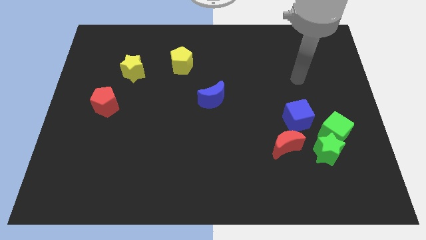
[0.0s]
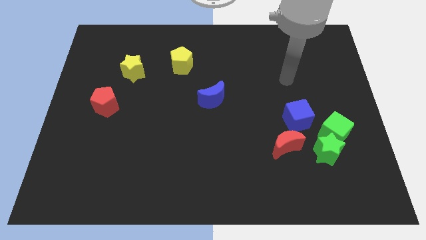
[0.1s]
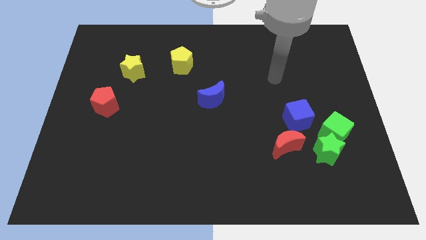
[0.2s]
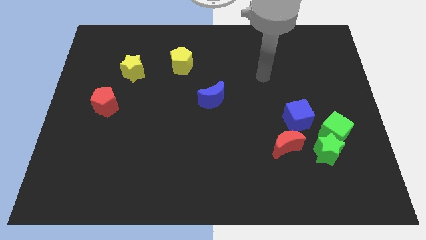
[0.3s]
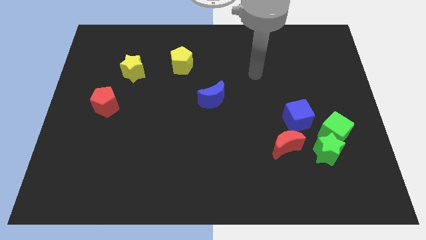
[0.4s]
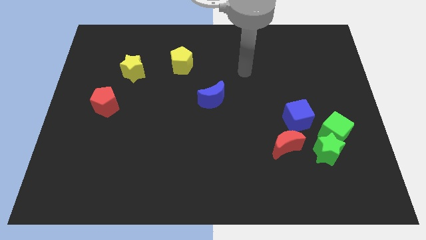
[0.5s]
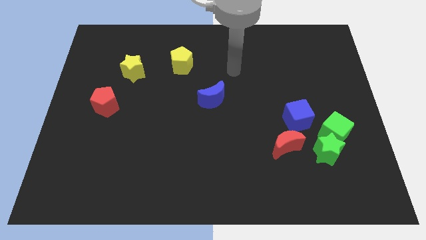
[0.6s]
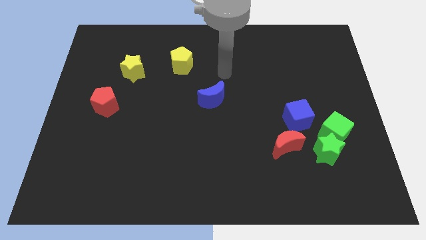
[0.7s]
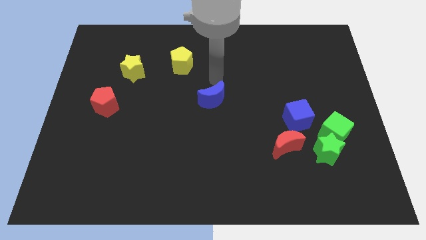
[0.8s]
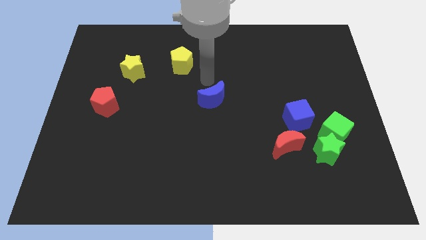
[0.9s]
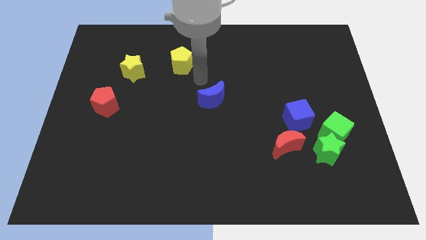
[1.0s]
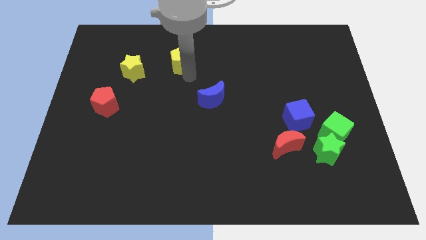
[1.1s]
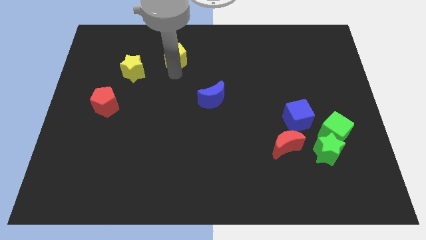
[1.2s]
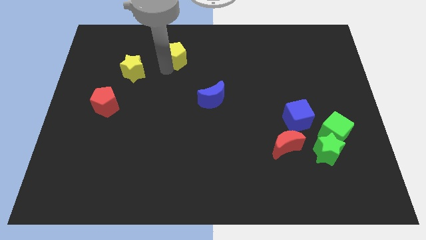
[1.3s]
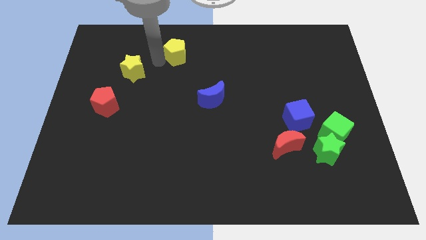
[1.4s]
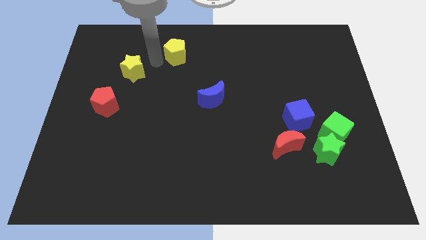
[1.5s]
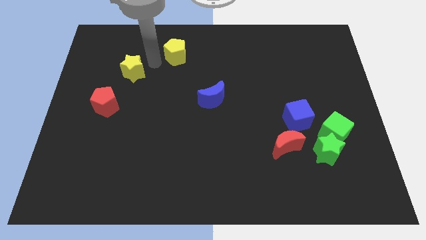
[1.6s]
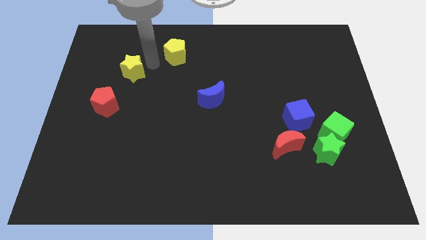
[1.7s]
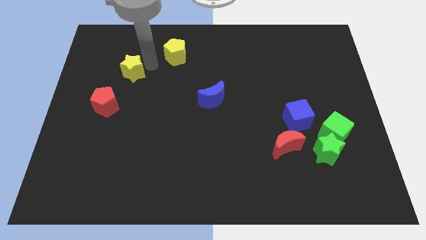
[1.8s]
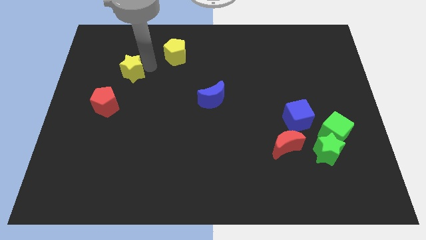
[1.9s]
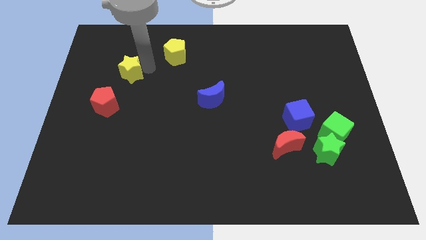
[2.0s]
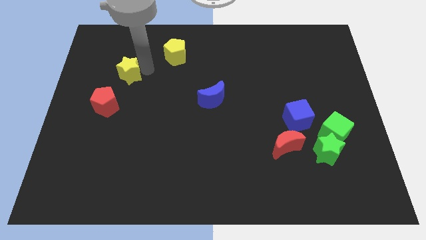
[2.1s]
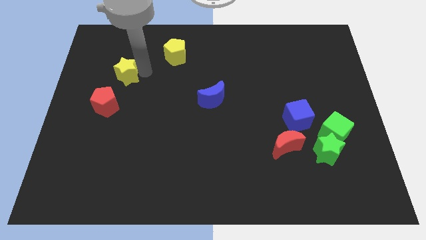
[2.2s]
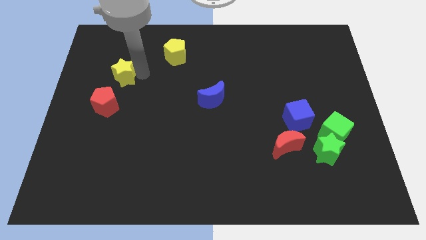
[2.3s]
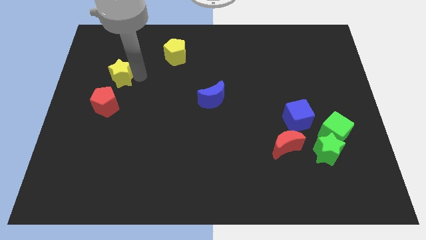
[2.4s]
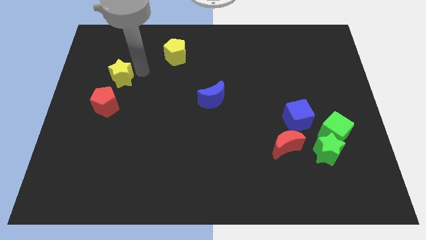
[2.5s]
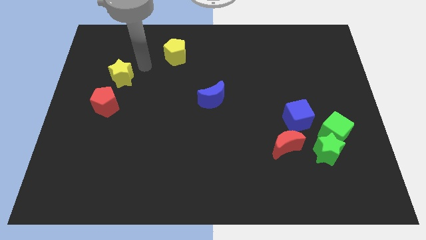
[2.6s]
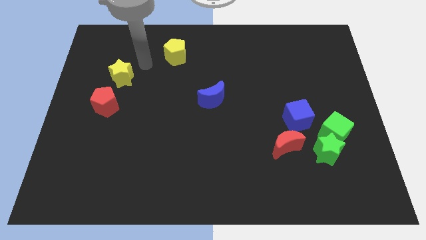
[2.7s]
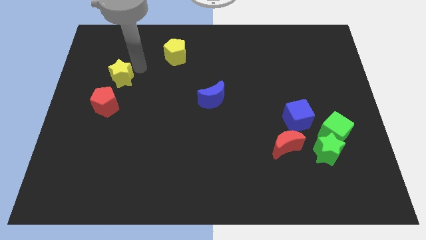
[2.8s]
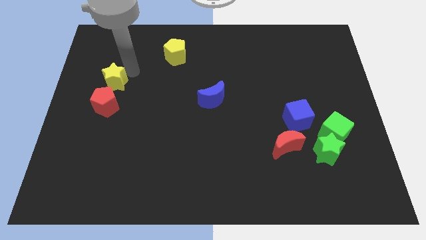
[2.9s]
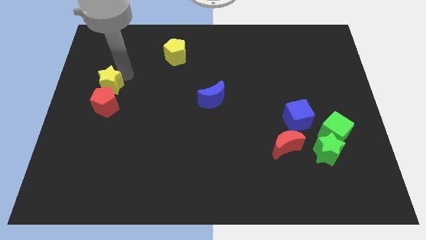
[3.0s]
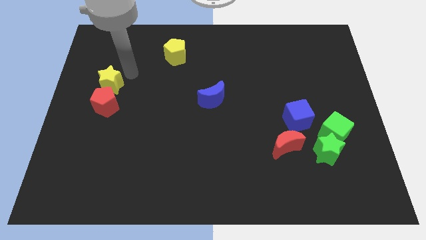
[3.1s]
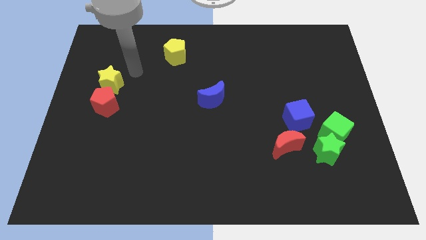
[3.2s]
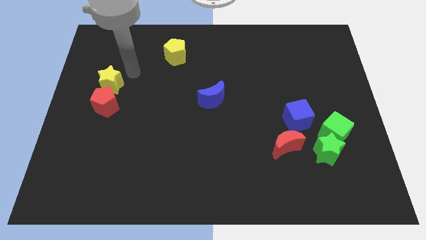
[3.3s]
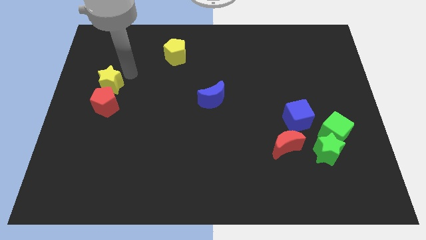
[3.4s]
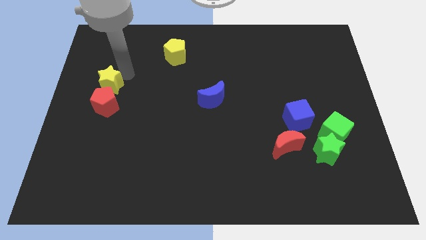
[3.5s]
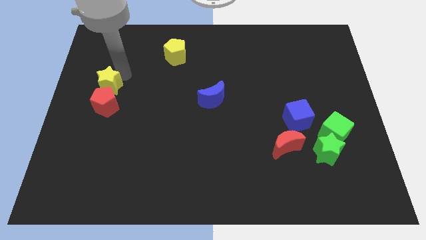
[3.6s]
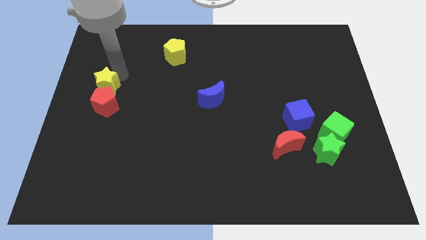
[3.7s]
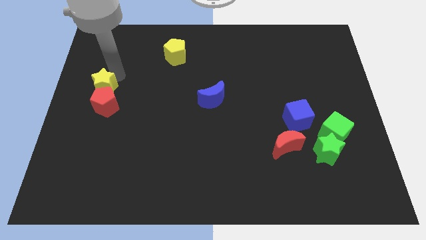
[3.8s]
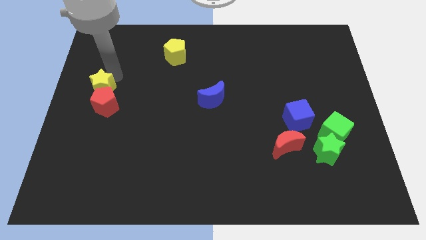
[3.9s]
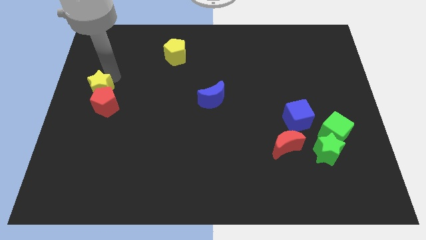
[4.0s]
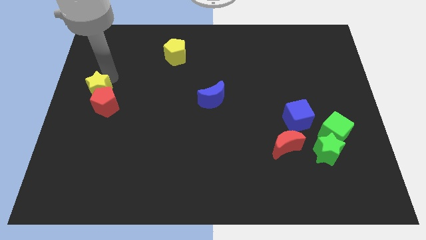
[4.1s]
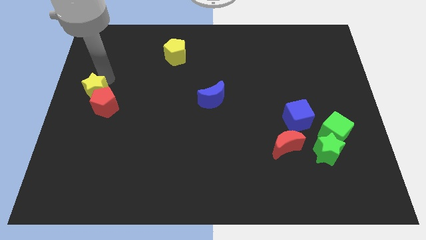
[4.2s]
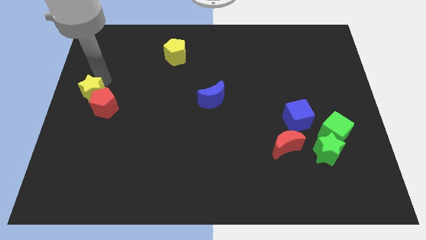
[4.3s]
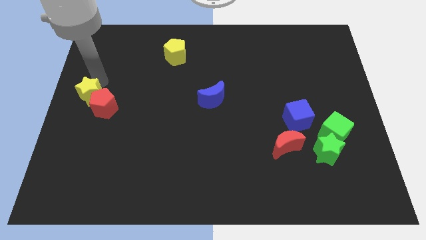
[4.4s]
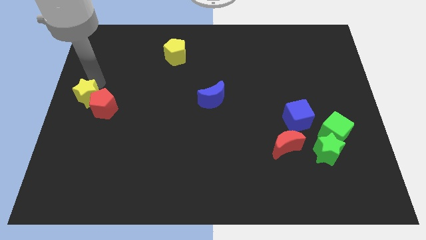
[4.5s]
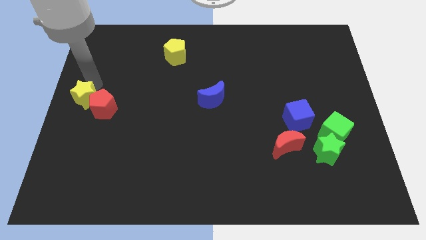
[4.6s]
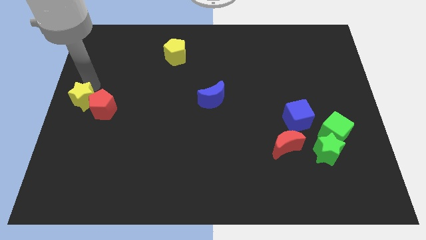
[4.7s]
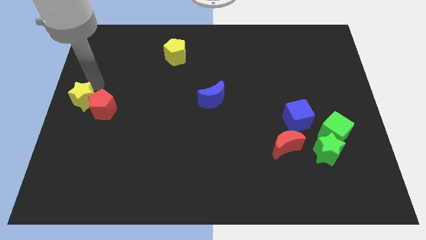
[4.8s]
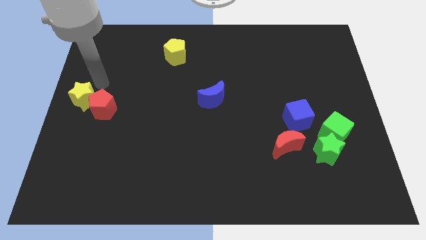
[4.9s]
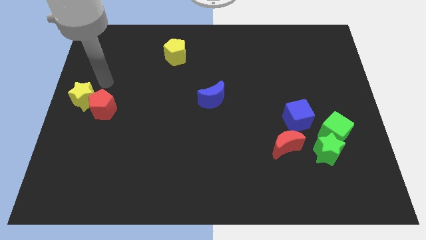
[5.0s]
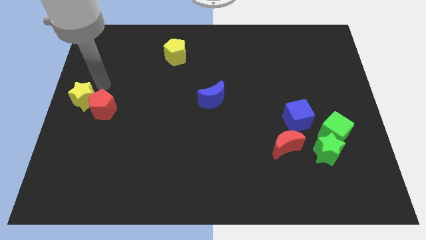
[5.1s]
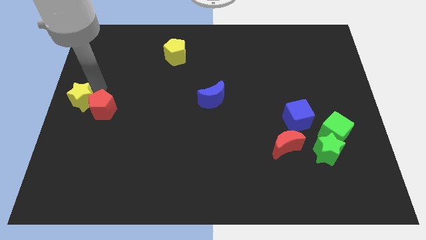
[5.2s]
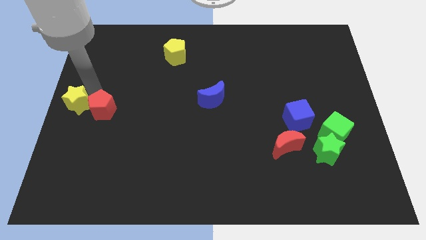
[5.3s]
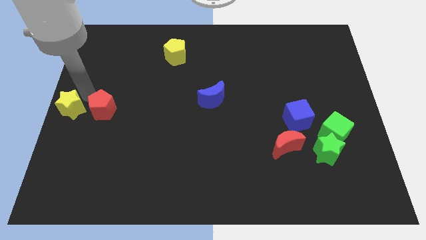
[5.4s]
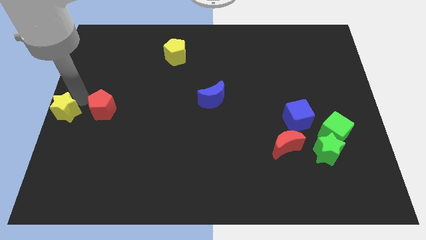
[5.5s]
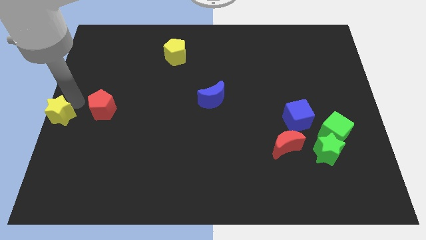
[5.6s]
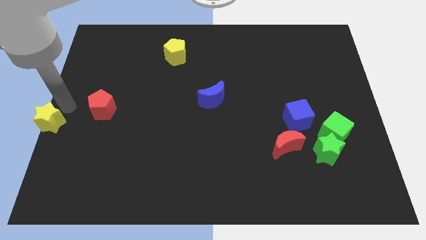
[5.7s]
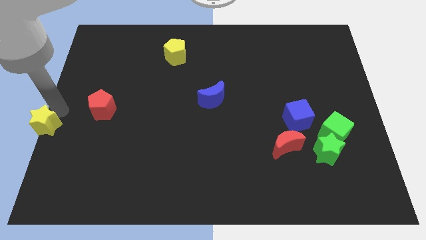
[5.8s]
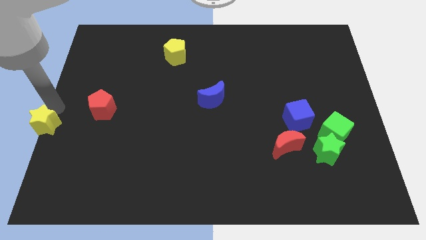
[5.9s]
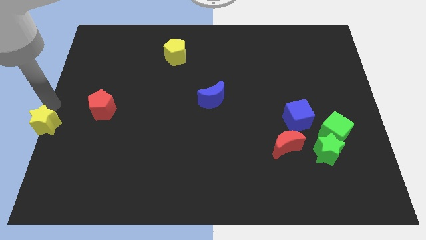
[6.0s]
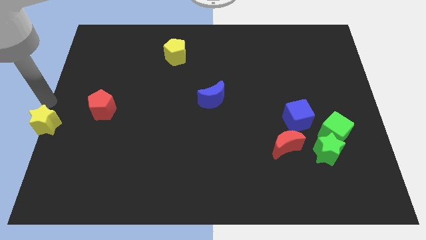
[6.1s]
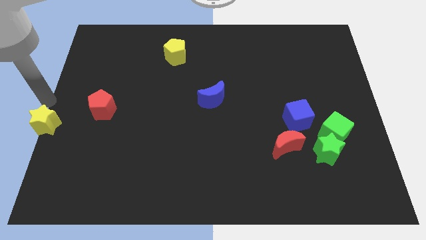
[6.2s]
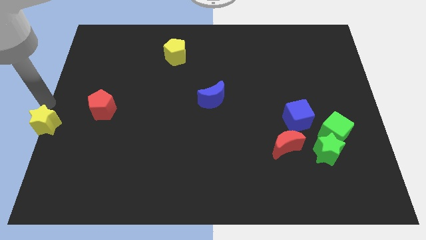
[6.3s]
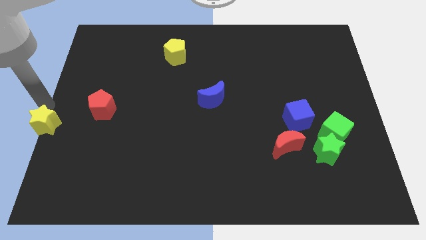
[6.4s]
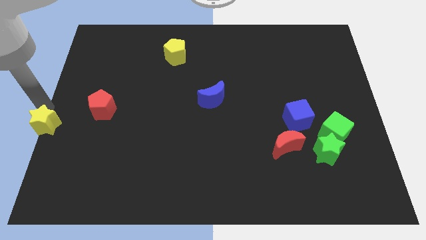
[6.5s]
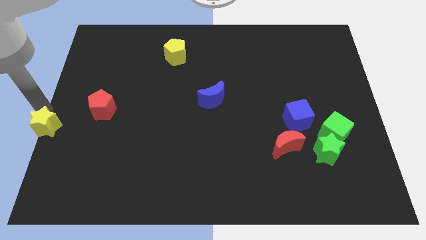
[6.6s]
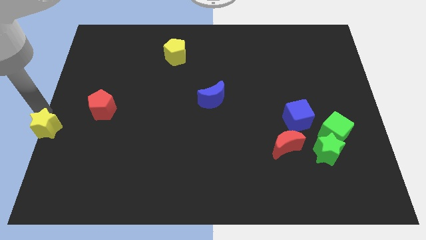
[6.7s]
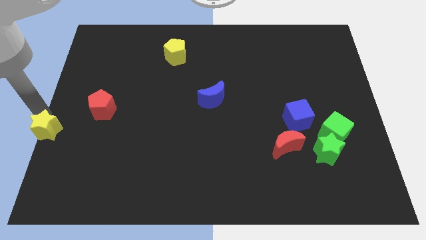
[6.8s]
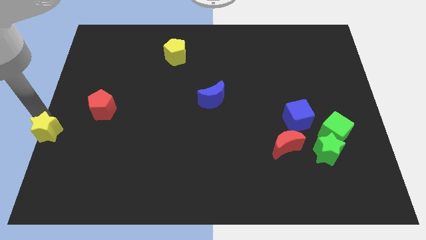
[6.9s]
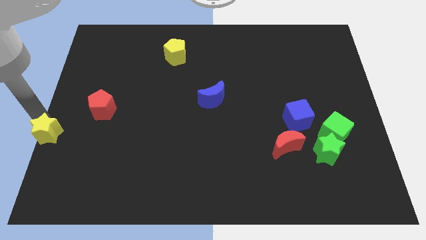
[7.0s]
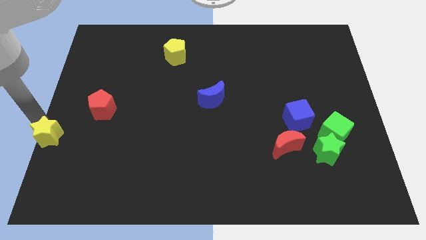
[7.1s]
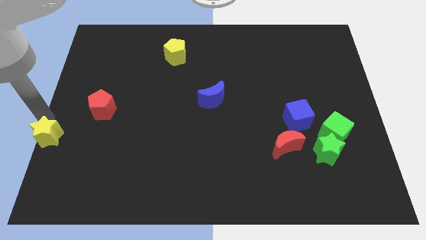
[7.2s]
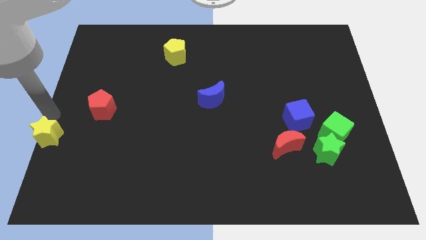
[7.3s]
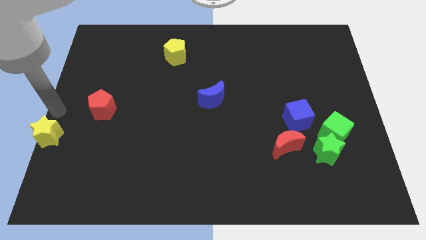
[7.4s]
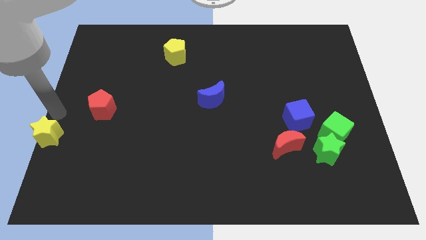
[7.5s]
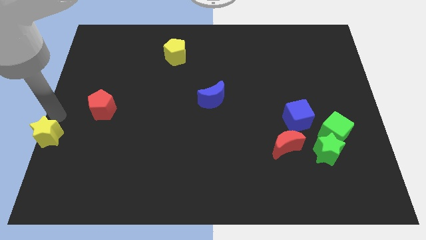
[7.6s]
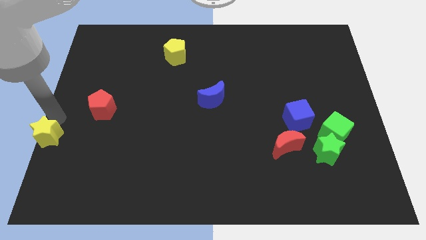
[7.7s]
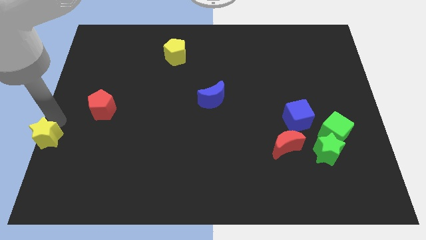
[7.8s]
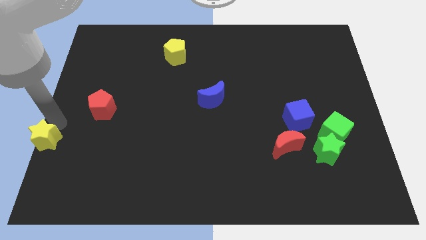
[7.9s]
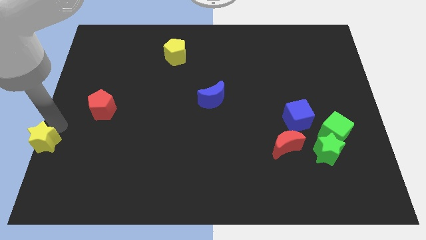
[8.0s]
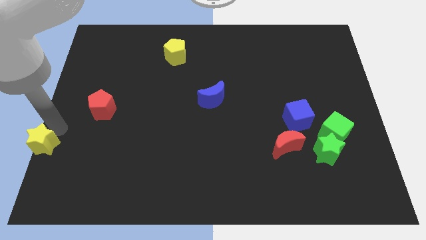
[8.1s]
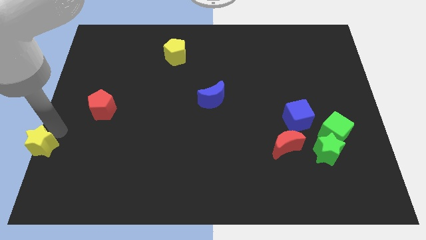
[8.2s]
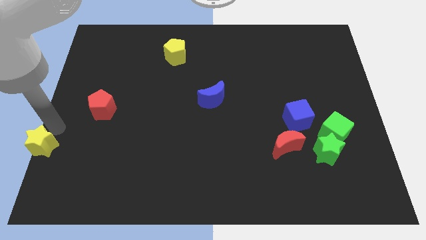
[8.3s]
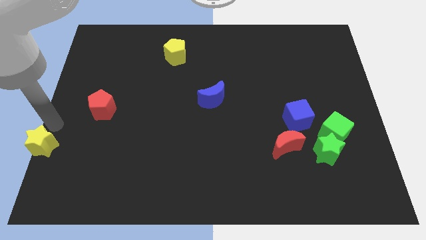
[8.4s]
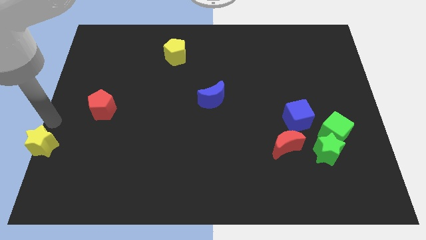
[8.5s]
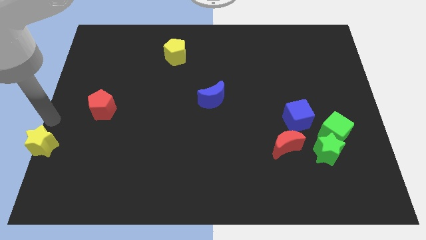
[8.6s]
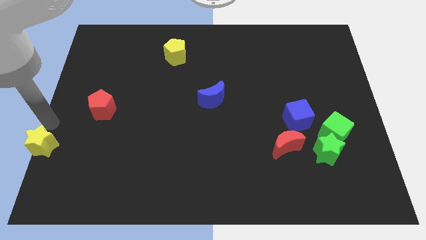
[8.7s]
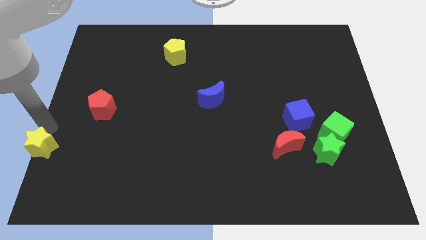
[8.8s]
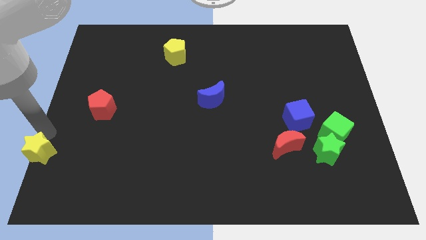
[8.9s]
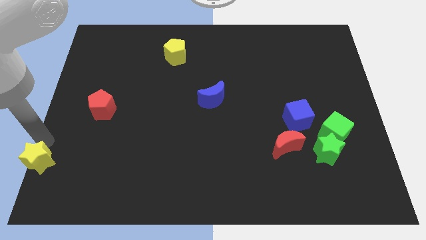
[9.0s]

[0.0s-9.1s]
put the yellow star to the bottom left of the board
